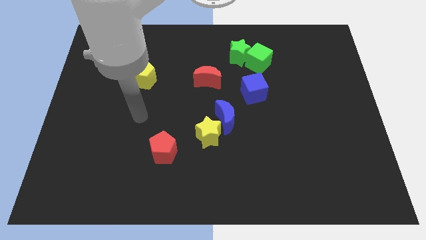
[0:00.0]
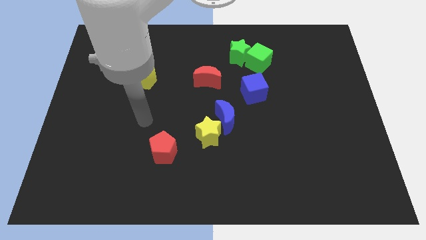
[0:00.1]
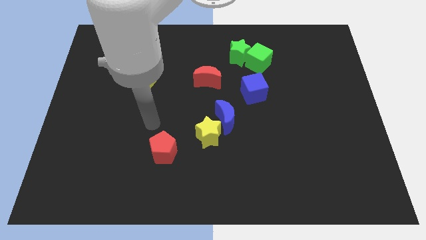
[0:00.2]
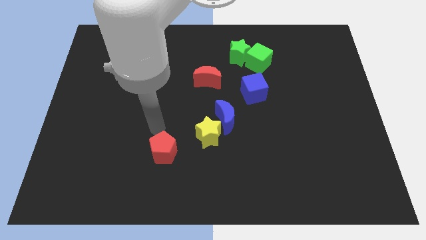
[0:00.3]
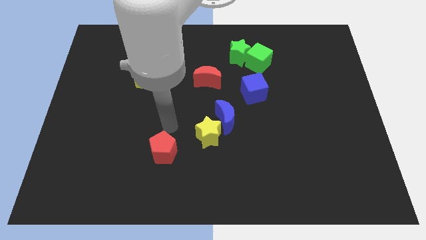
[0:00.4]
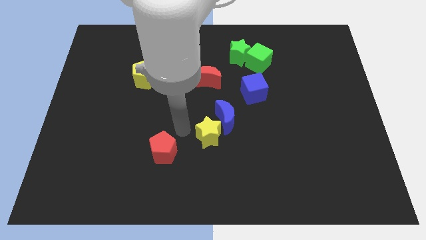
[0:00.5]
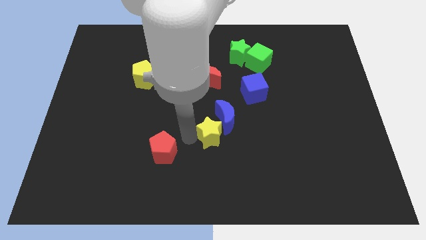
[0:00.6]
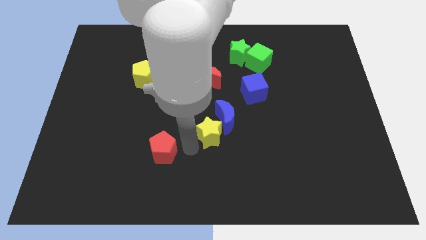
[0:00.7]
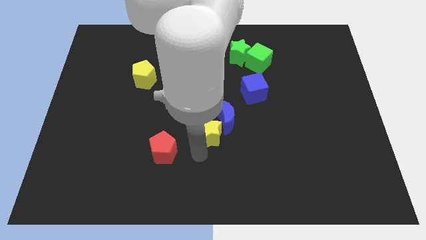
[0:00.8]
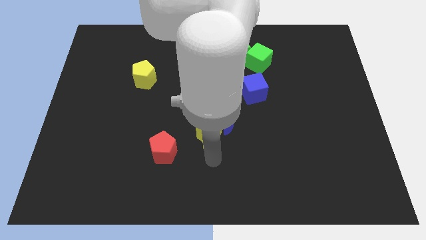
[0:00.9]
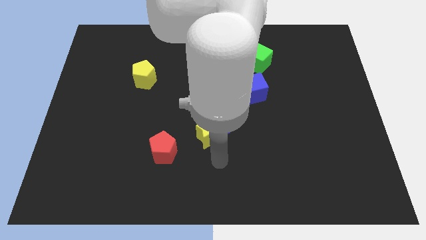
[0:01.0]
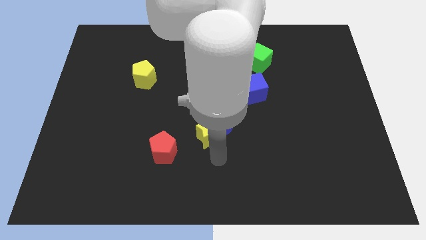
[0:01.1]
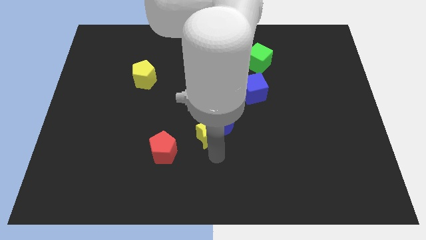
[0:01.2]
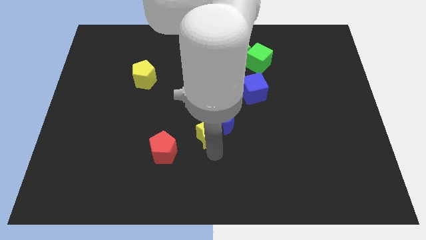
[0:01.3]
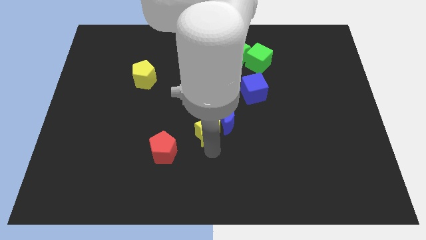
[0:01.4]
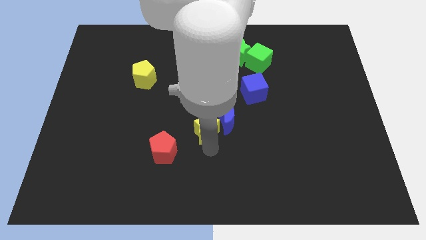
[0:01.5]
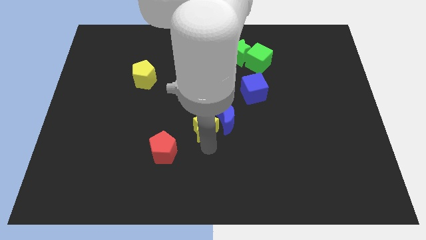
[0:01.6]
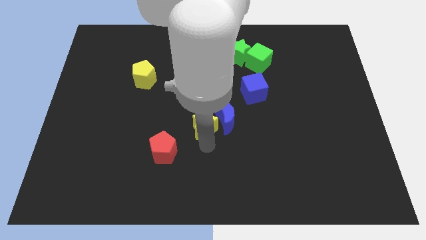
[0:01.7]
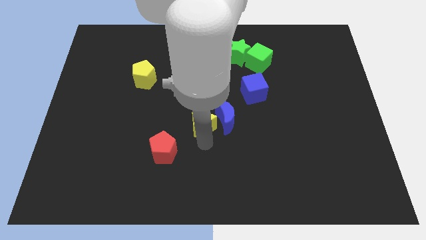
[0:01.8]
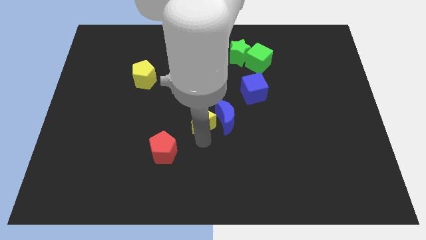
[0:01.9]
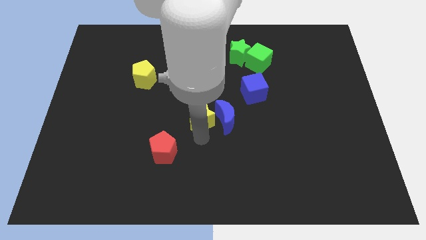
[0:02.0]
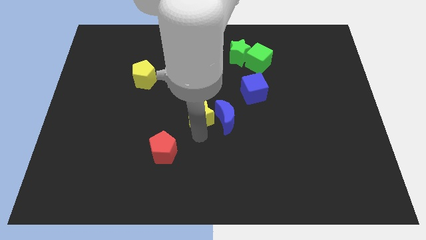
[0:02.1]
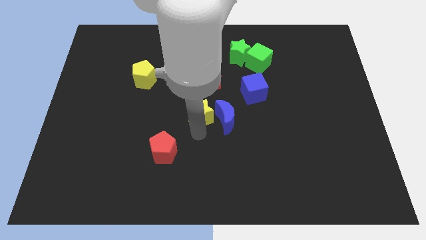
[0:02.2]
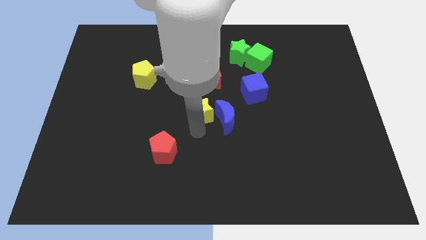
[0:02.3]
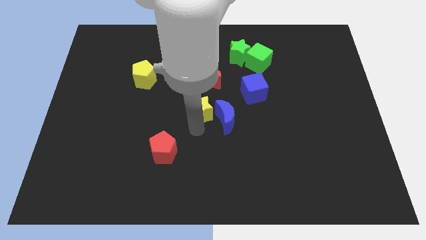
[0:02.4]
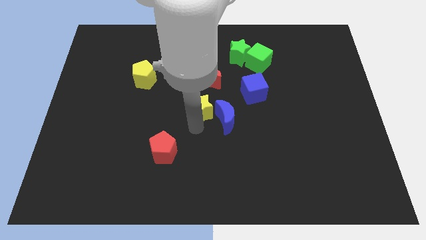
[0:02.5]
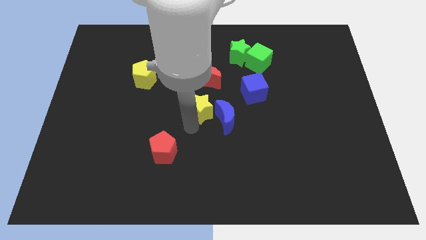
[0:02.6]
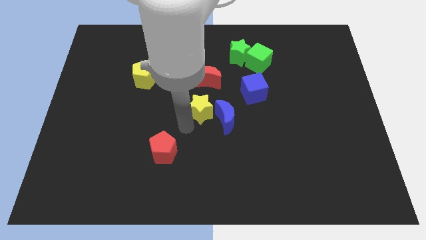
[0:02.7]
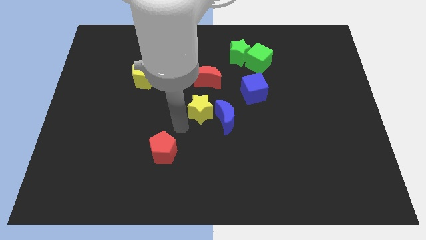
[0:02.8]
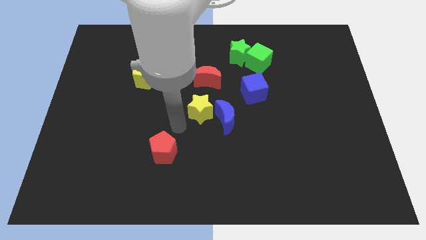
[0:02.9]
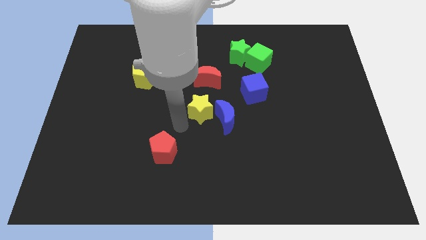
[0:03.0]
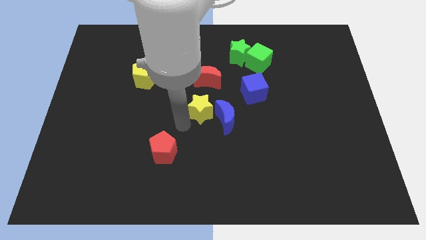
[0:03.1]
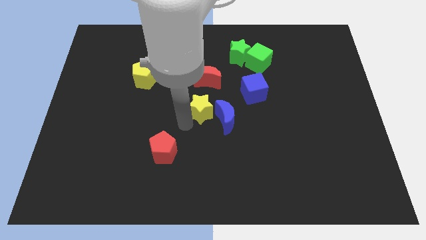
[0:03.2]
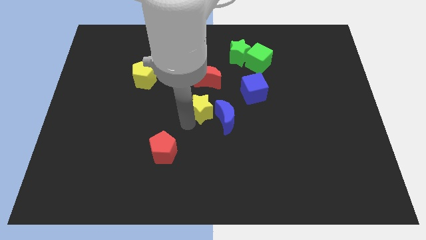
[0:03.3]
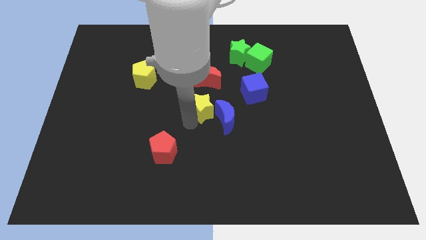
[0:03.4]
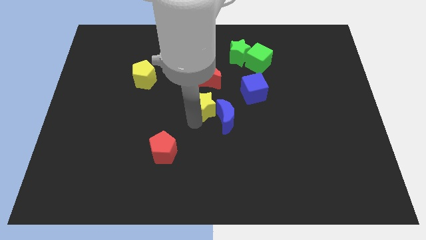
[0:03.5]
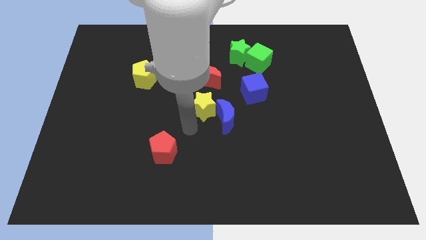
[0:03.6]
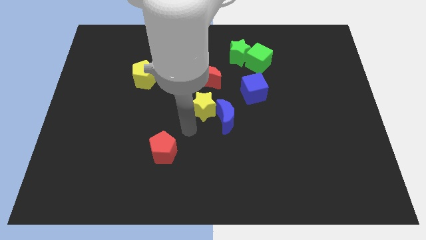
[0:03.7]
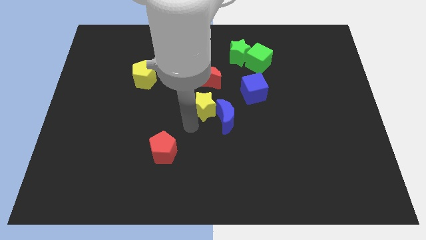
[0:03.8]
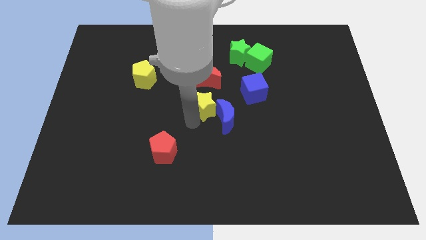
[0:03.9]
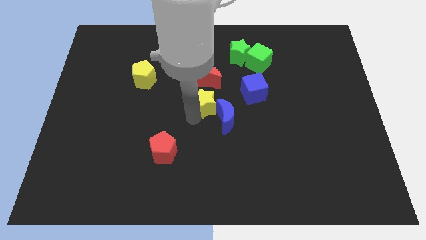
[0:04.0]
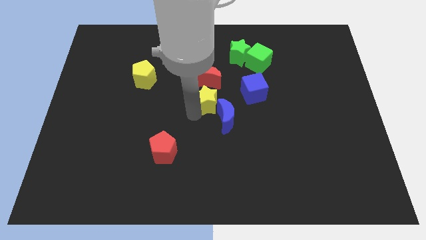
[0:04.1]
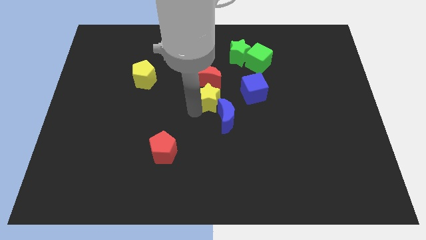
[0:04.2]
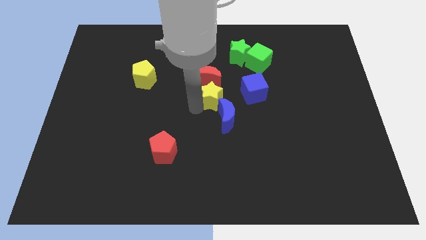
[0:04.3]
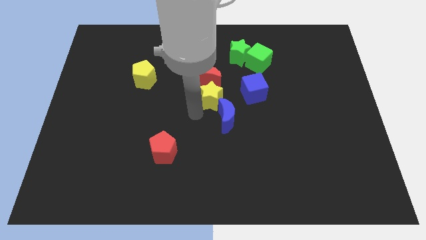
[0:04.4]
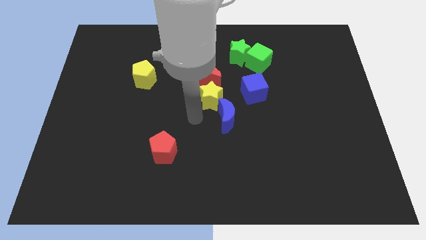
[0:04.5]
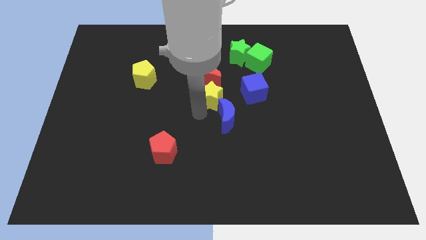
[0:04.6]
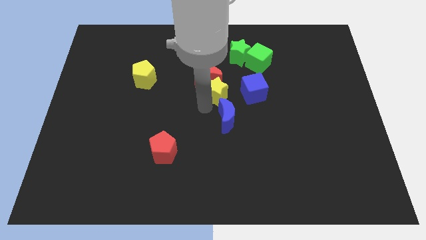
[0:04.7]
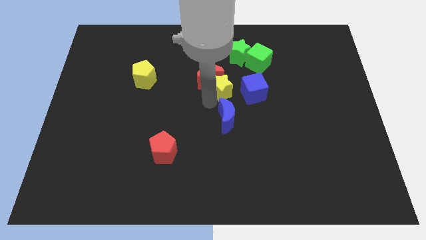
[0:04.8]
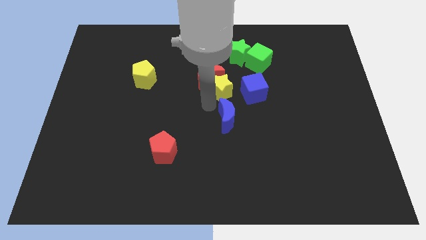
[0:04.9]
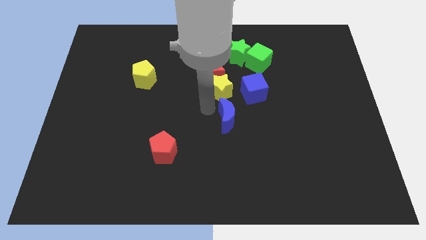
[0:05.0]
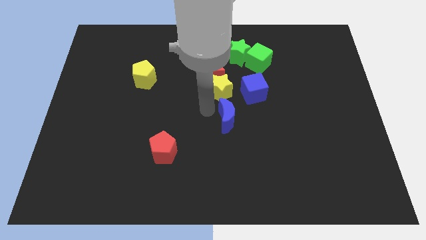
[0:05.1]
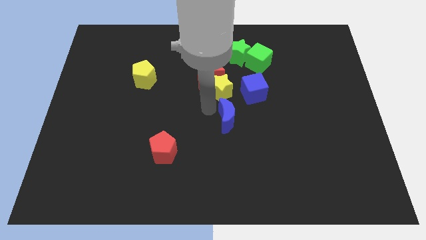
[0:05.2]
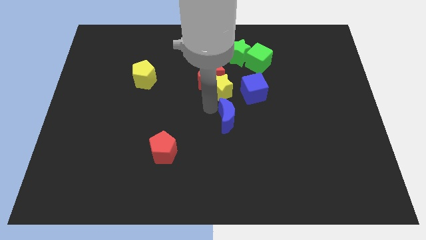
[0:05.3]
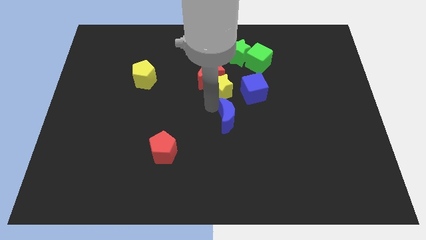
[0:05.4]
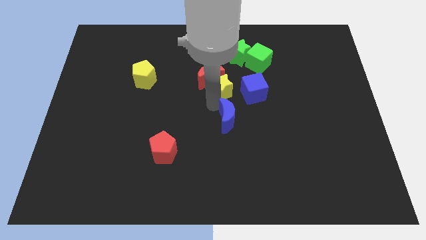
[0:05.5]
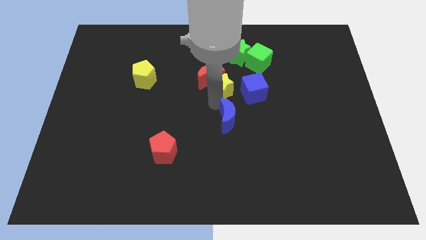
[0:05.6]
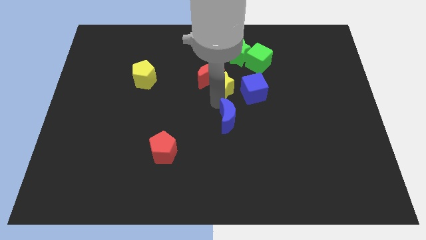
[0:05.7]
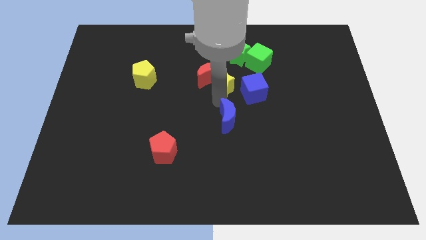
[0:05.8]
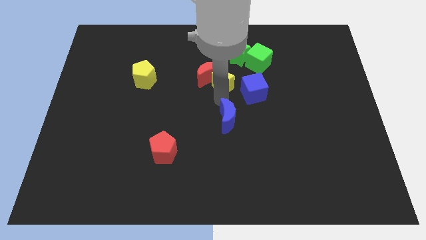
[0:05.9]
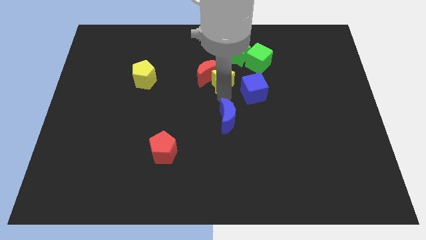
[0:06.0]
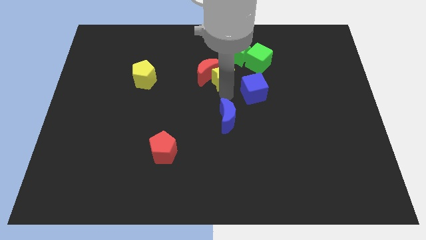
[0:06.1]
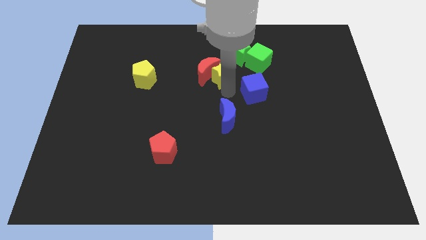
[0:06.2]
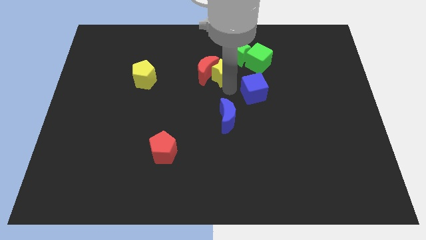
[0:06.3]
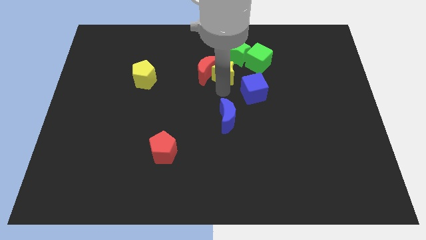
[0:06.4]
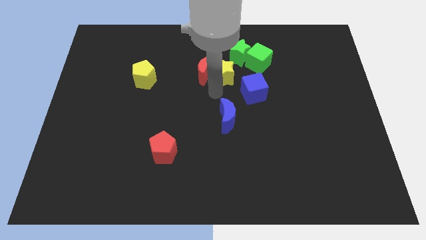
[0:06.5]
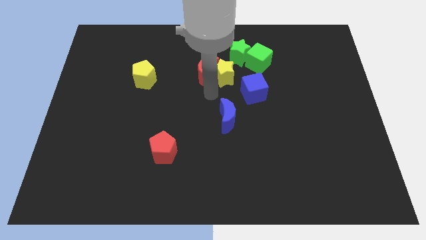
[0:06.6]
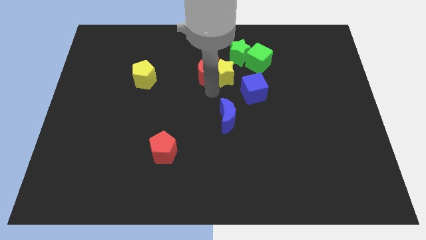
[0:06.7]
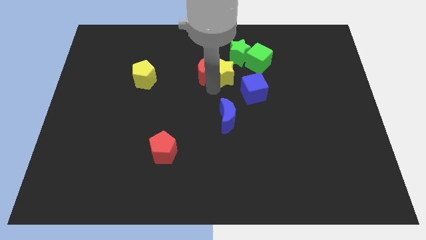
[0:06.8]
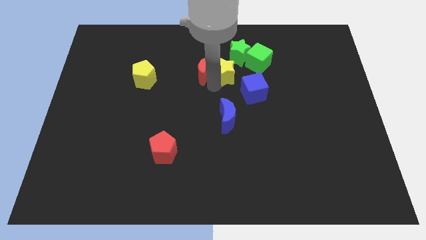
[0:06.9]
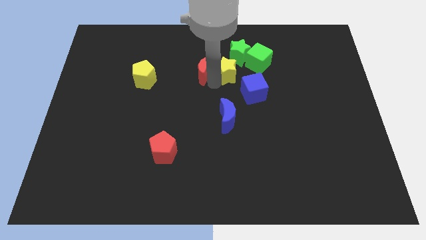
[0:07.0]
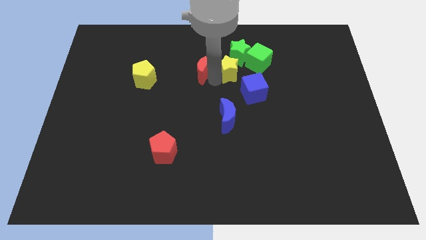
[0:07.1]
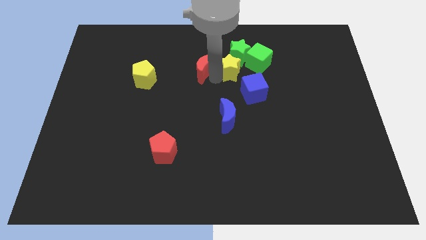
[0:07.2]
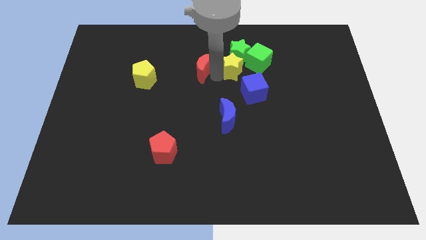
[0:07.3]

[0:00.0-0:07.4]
push the yellow star close to the green star
